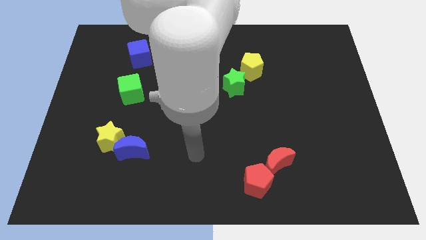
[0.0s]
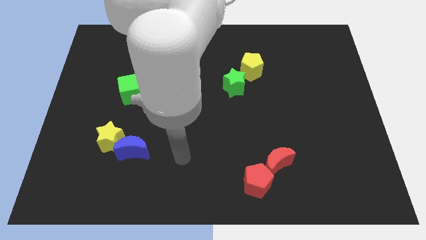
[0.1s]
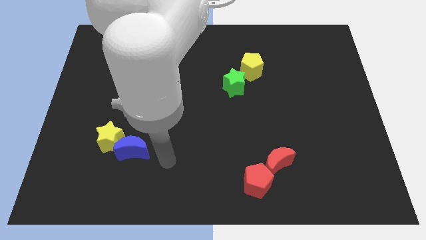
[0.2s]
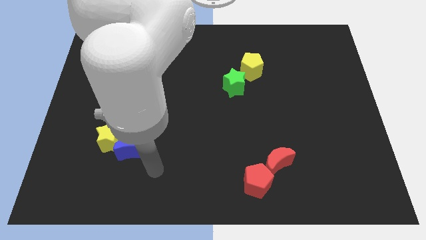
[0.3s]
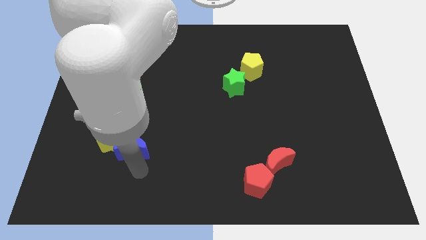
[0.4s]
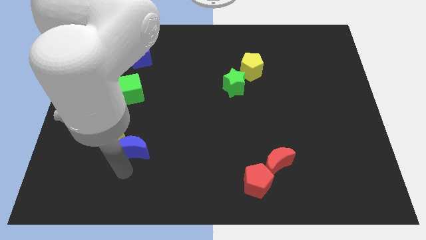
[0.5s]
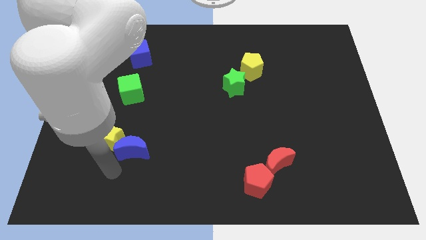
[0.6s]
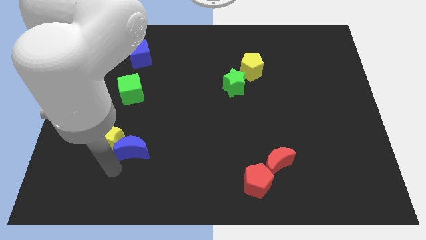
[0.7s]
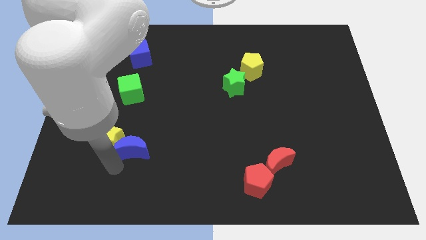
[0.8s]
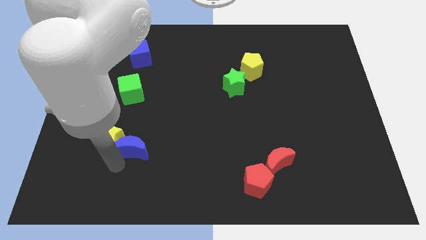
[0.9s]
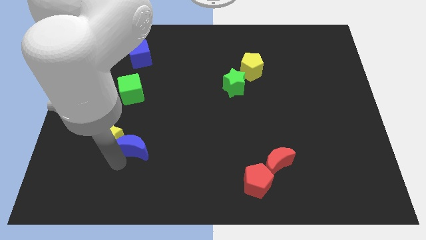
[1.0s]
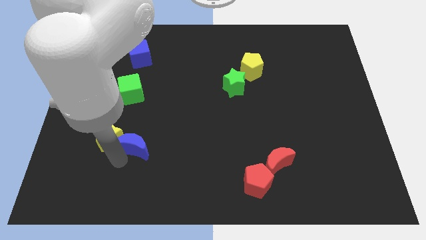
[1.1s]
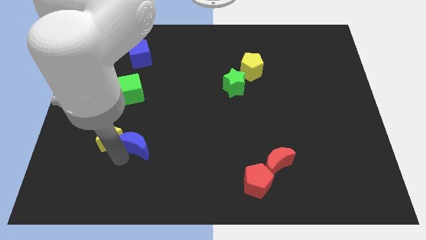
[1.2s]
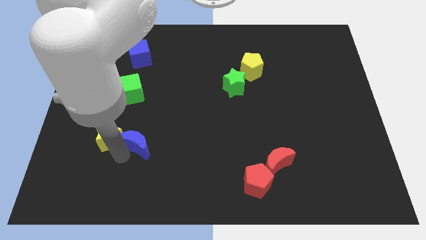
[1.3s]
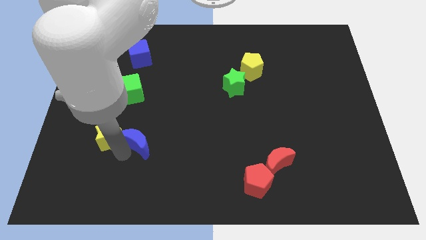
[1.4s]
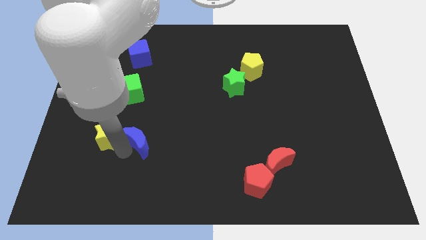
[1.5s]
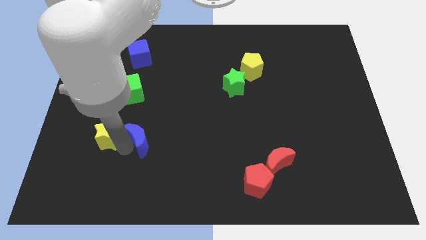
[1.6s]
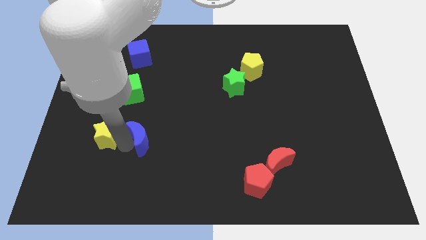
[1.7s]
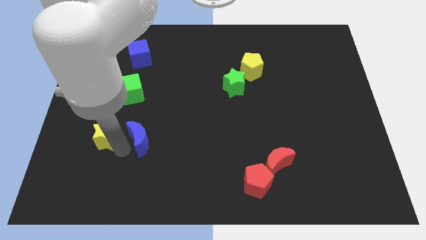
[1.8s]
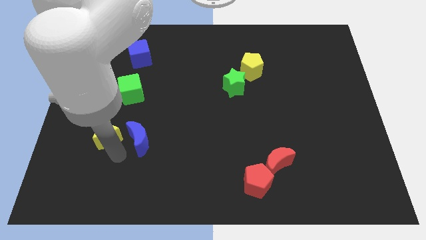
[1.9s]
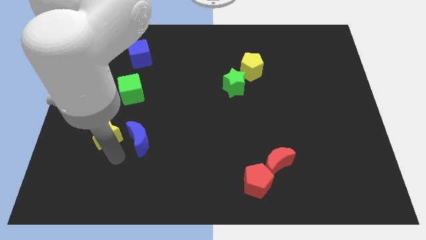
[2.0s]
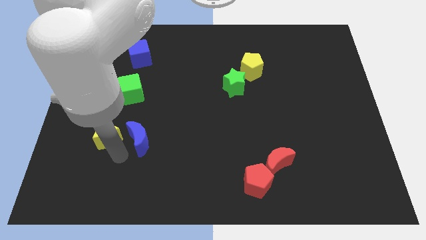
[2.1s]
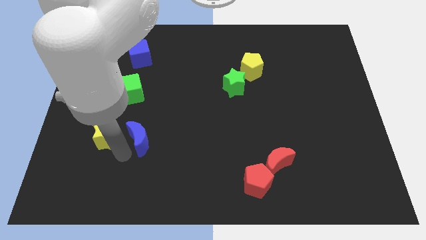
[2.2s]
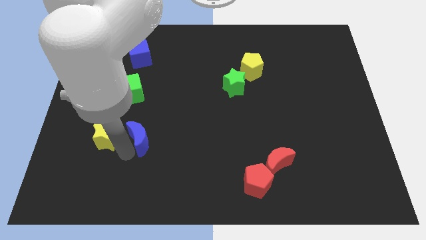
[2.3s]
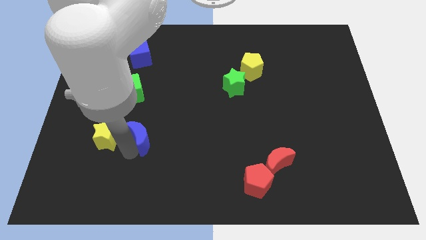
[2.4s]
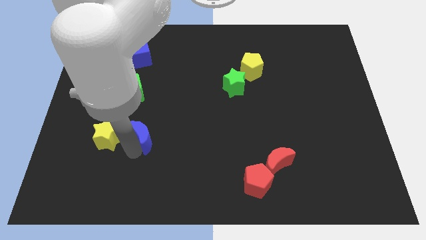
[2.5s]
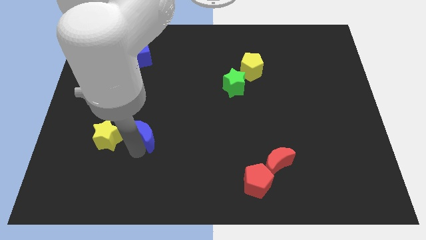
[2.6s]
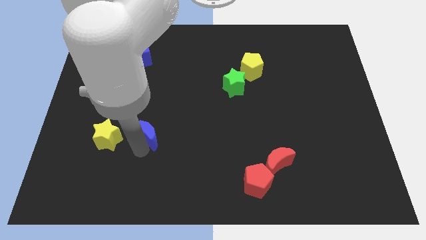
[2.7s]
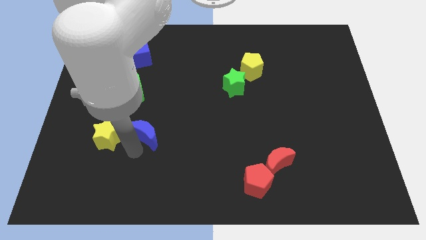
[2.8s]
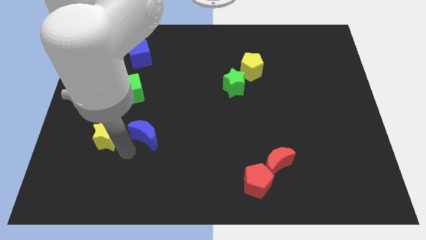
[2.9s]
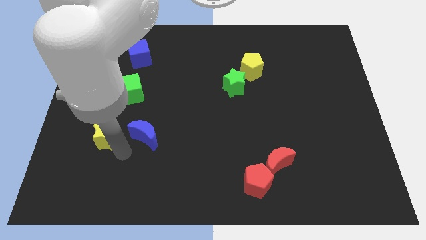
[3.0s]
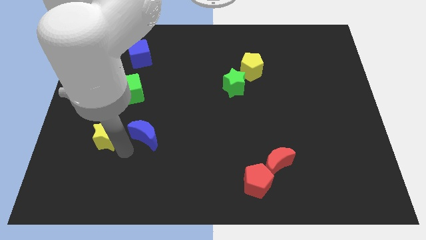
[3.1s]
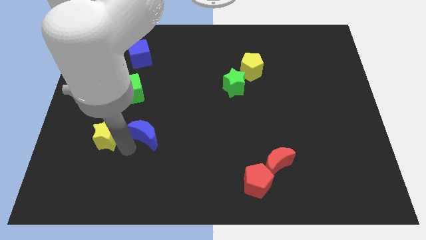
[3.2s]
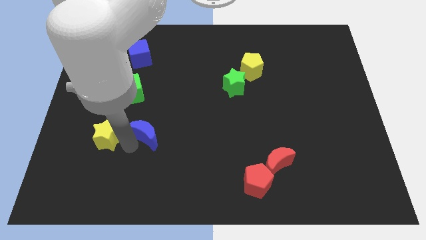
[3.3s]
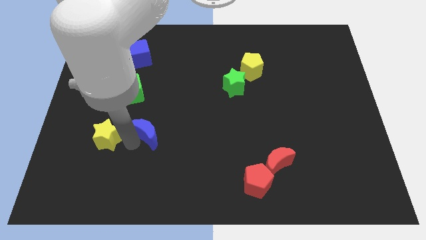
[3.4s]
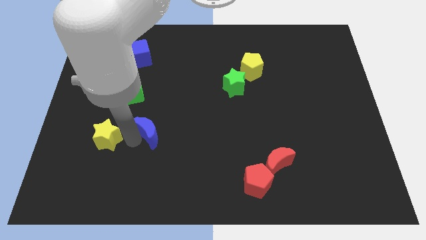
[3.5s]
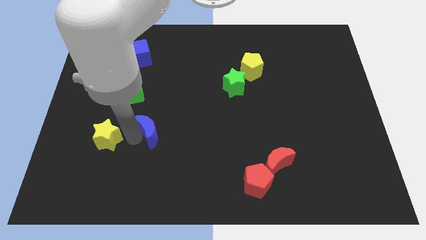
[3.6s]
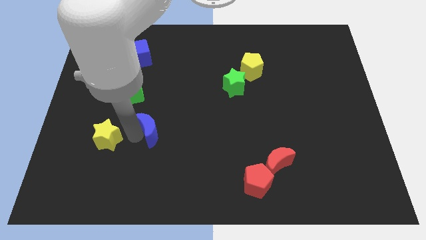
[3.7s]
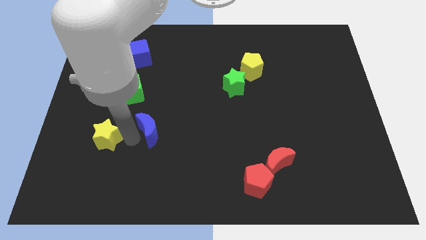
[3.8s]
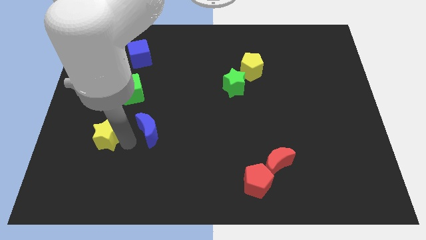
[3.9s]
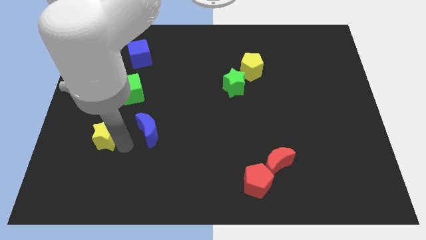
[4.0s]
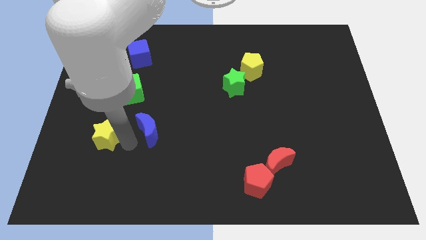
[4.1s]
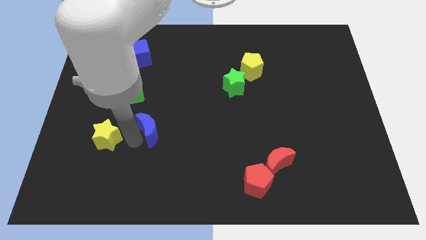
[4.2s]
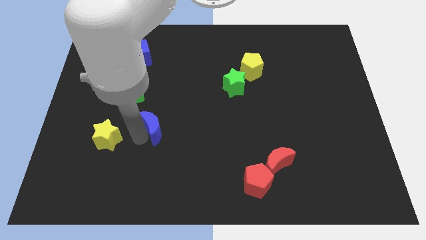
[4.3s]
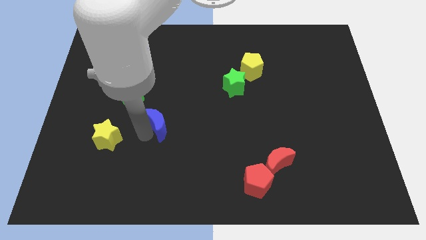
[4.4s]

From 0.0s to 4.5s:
move the blue moon up and then right a little bit

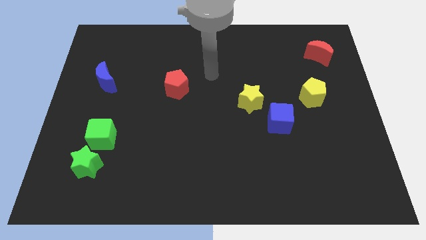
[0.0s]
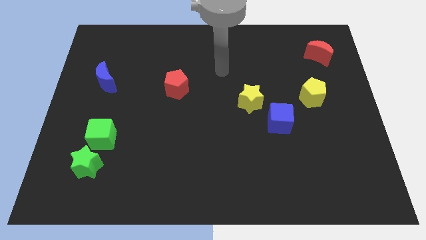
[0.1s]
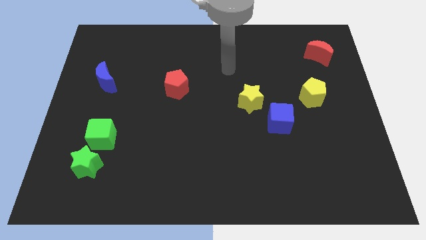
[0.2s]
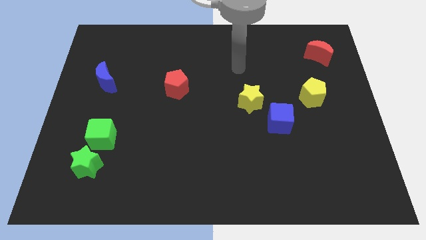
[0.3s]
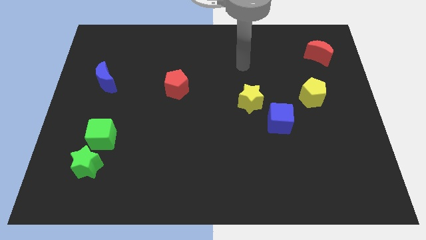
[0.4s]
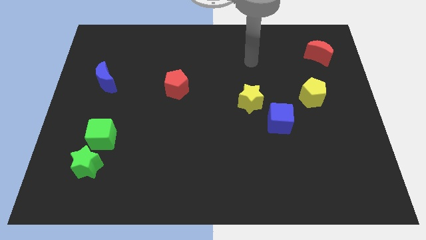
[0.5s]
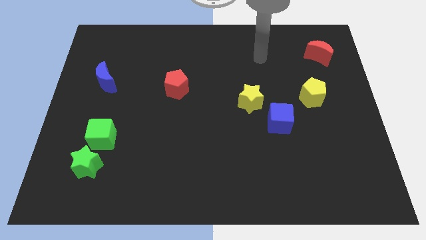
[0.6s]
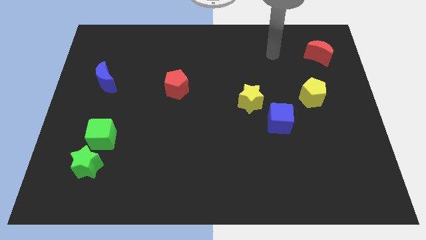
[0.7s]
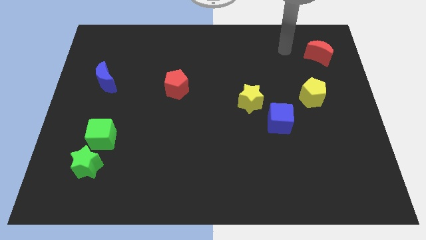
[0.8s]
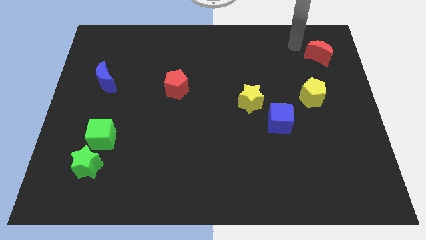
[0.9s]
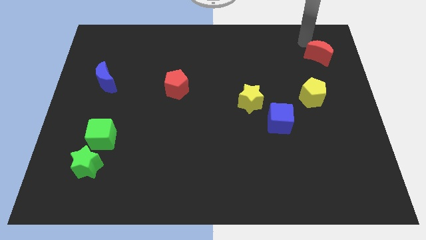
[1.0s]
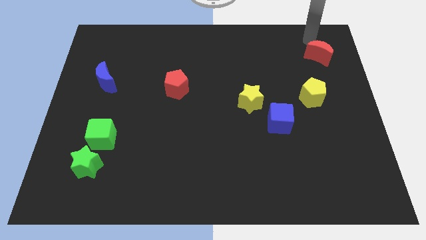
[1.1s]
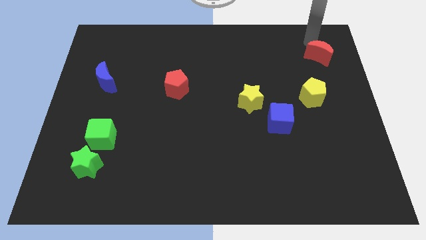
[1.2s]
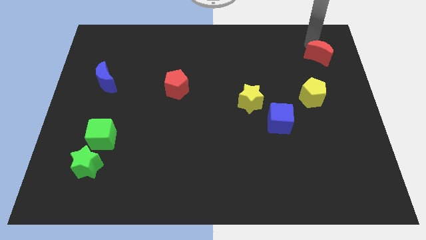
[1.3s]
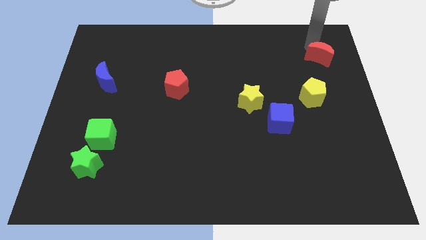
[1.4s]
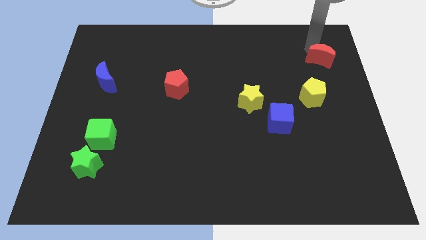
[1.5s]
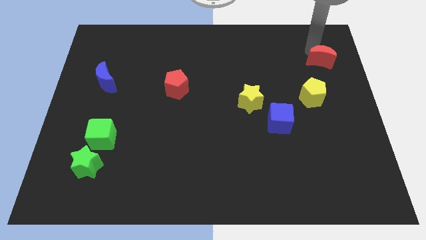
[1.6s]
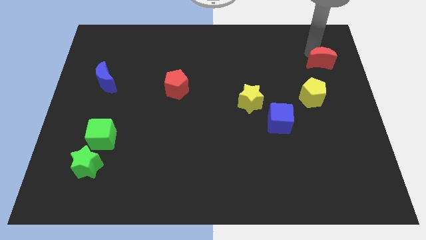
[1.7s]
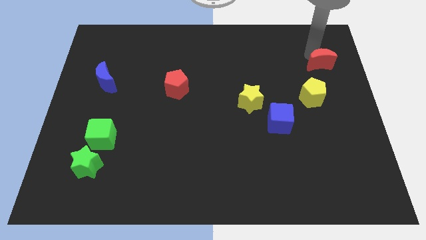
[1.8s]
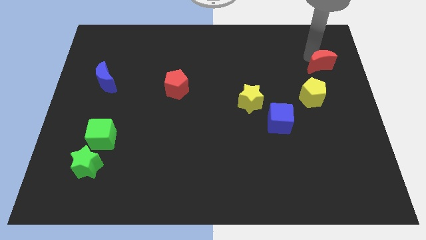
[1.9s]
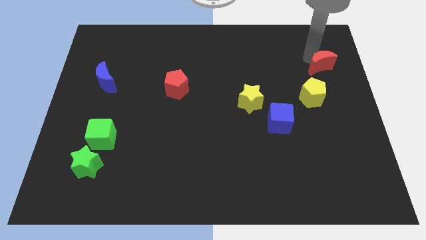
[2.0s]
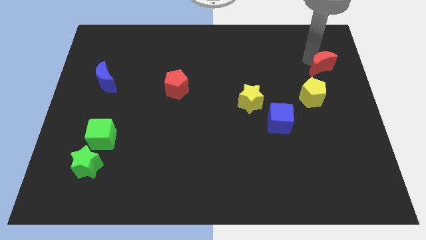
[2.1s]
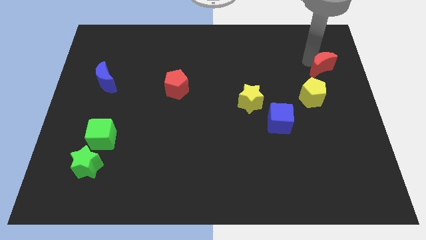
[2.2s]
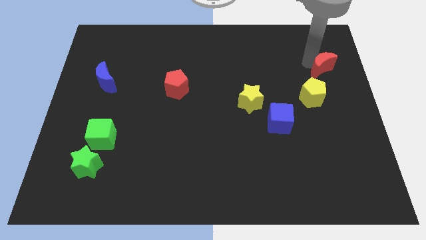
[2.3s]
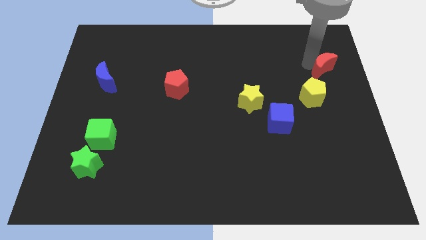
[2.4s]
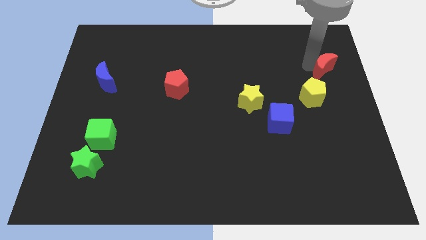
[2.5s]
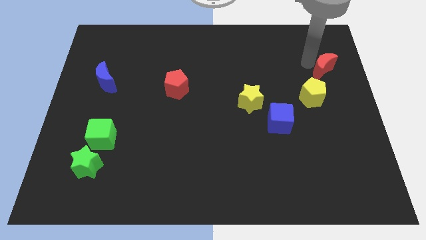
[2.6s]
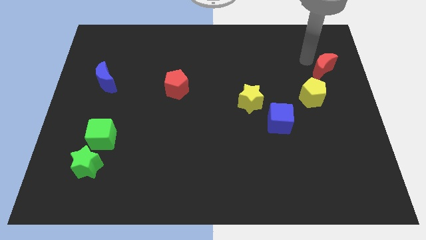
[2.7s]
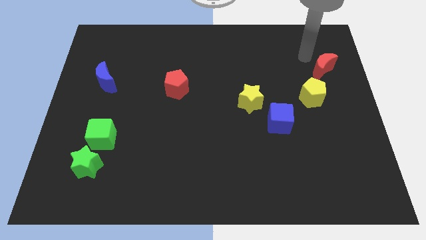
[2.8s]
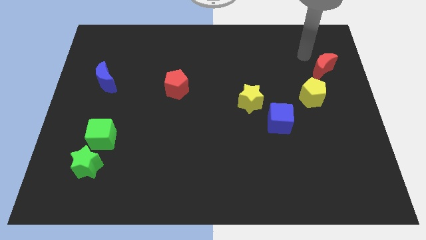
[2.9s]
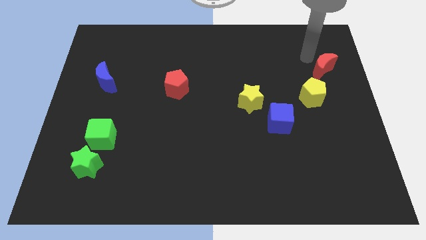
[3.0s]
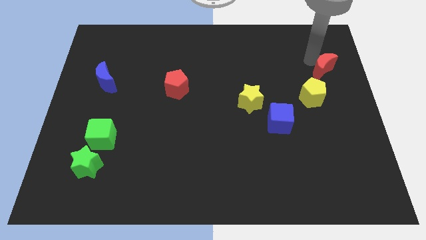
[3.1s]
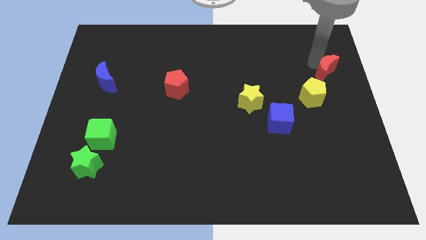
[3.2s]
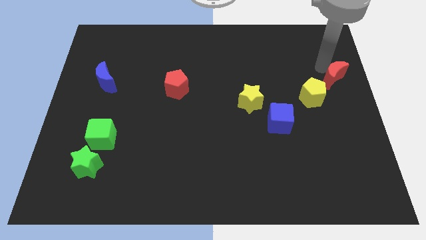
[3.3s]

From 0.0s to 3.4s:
slide the red moon somewhat down

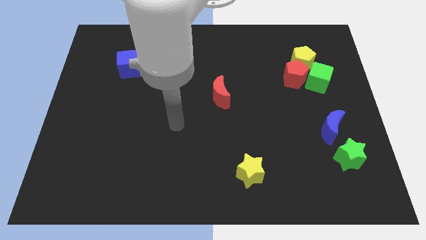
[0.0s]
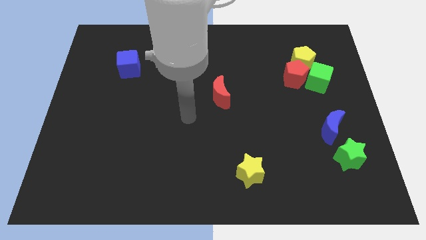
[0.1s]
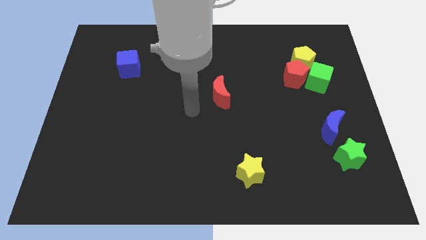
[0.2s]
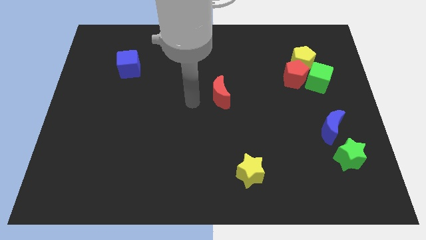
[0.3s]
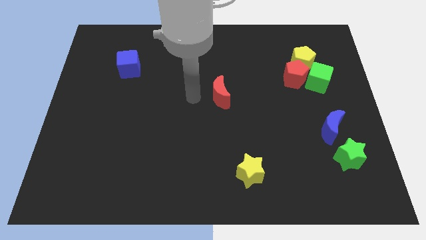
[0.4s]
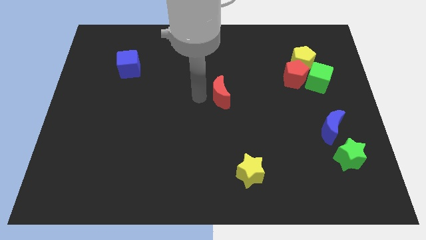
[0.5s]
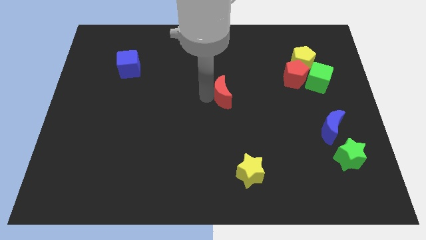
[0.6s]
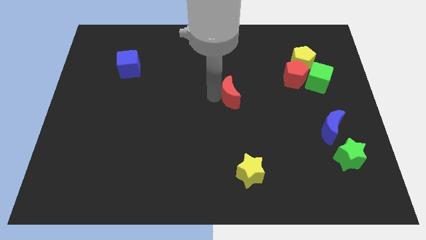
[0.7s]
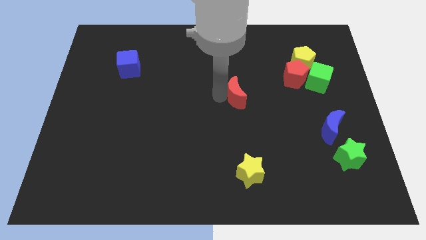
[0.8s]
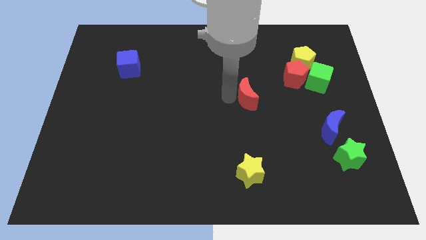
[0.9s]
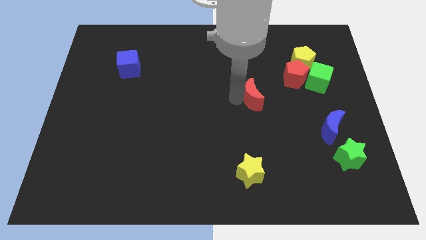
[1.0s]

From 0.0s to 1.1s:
push the red moon a bit to the right
